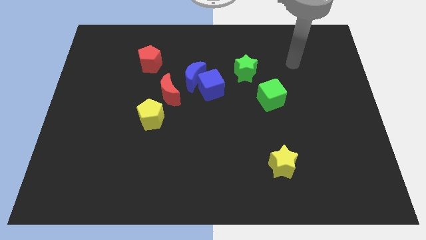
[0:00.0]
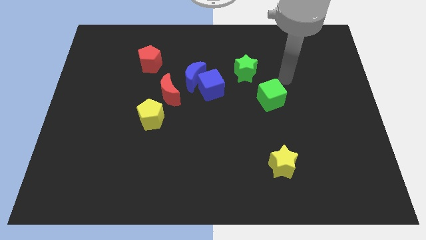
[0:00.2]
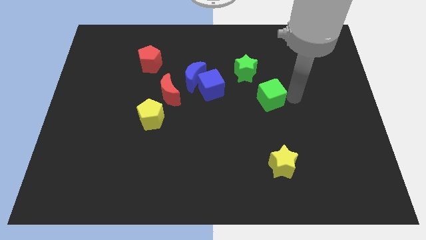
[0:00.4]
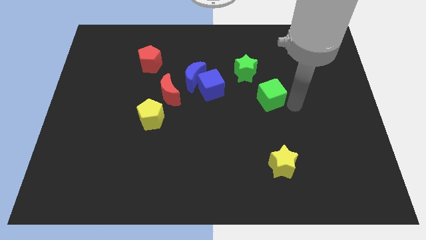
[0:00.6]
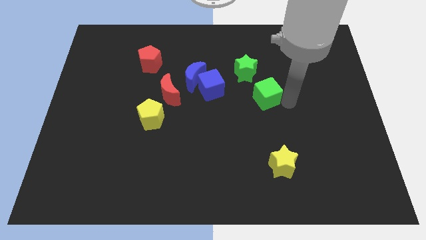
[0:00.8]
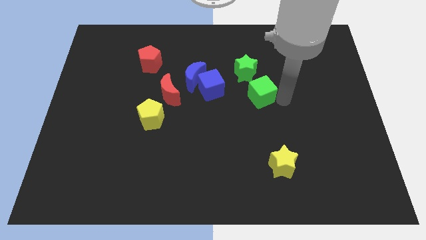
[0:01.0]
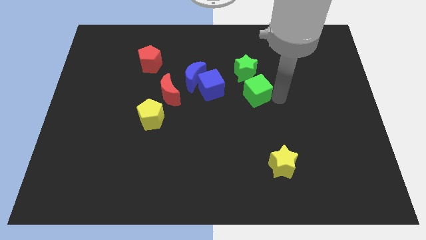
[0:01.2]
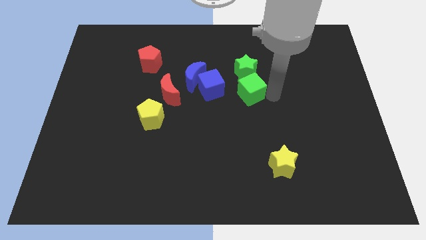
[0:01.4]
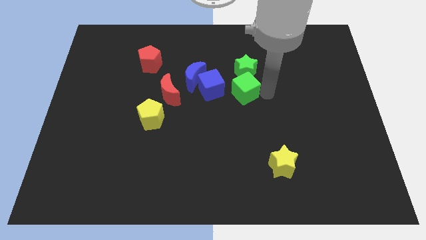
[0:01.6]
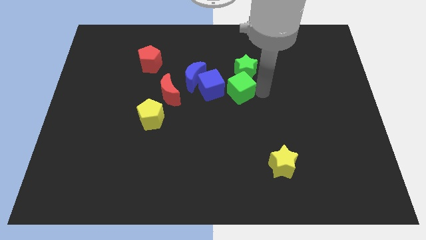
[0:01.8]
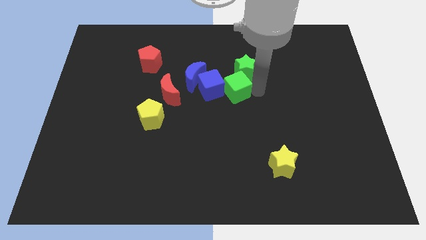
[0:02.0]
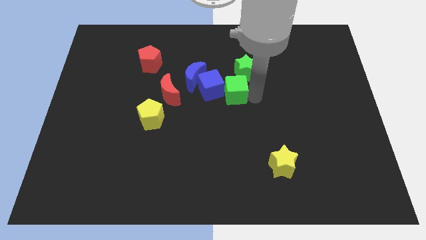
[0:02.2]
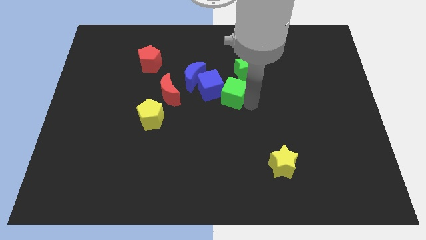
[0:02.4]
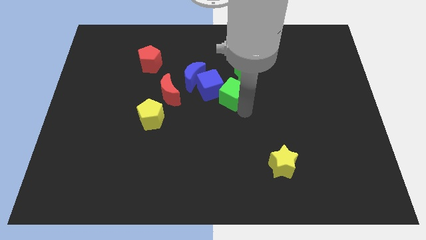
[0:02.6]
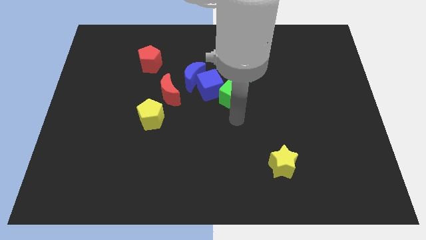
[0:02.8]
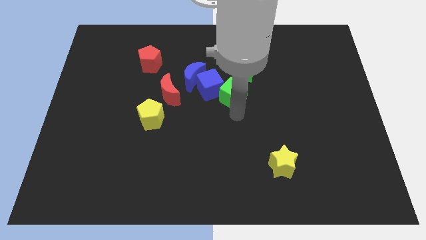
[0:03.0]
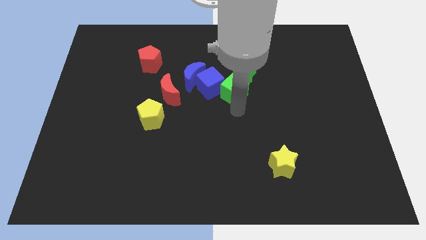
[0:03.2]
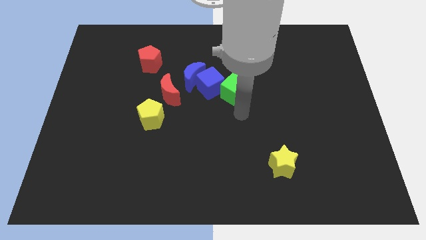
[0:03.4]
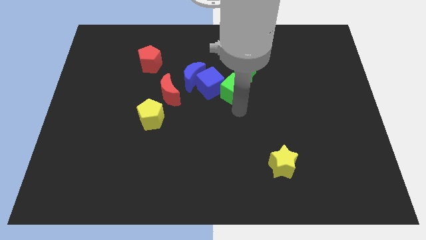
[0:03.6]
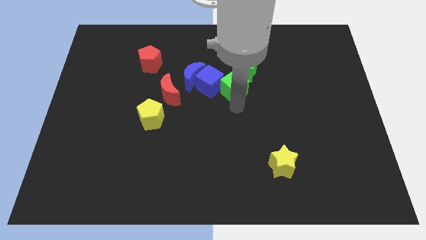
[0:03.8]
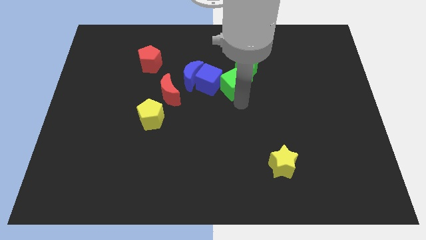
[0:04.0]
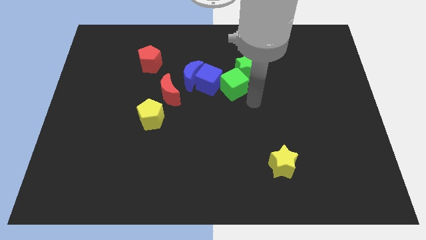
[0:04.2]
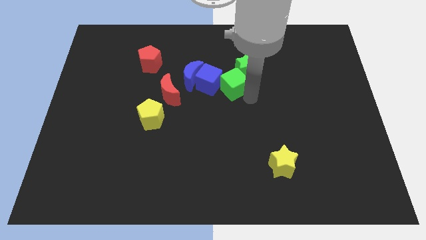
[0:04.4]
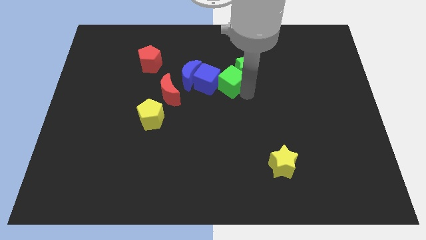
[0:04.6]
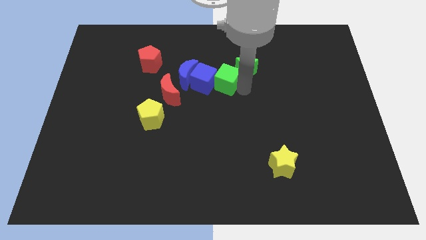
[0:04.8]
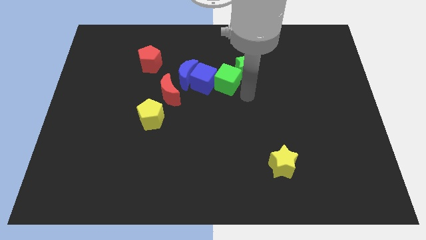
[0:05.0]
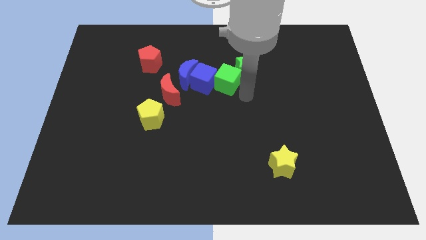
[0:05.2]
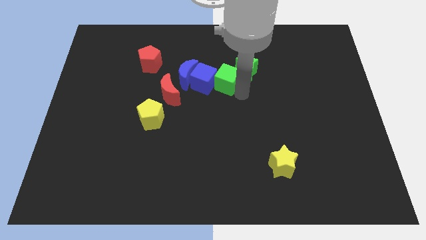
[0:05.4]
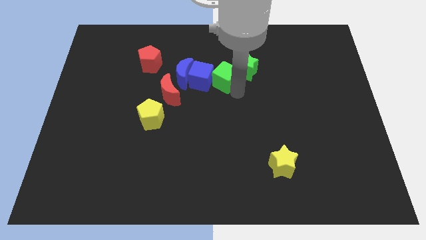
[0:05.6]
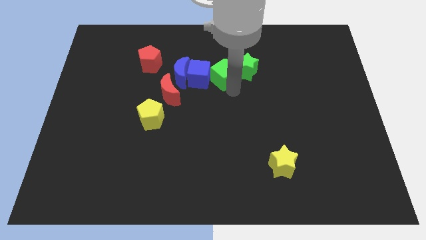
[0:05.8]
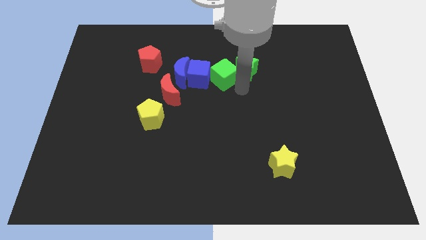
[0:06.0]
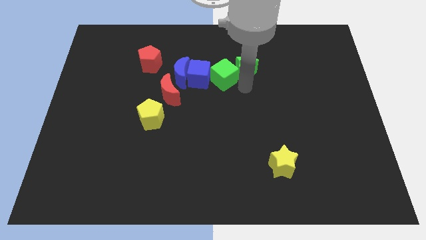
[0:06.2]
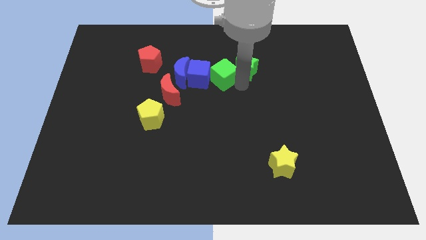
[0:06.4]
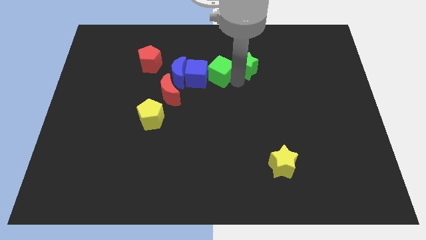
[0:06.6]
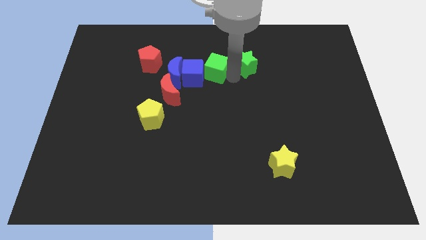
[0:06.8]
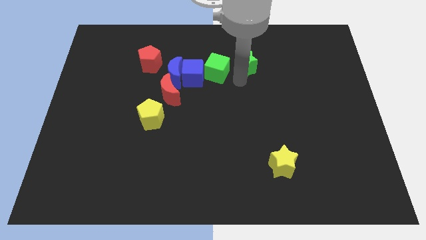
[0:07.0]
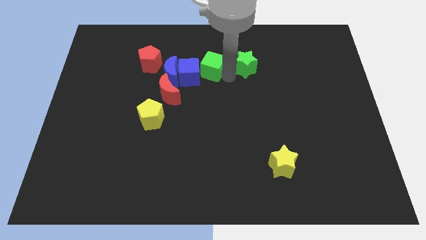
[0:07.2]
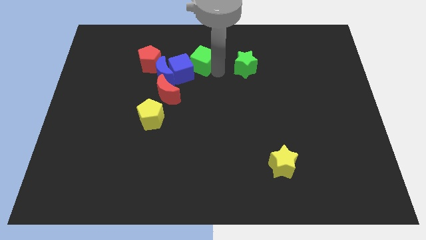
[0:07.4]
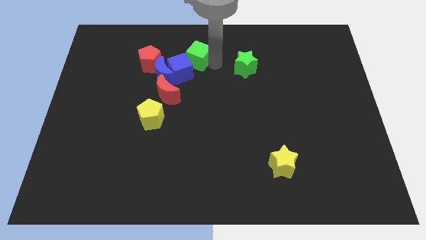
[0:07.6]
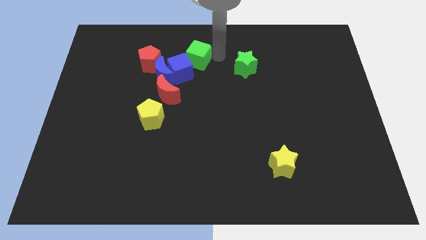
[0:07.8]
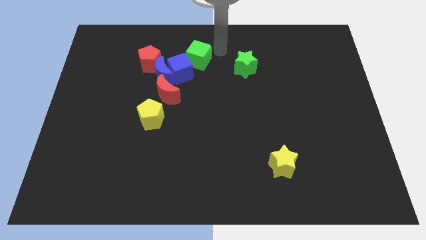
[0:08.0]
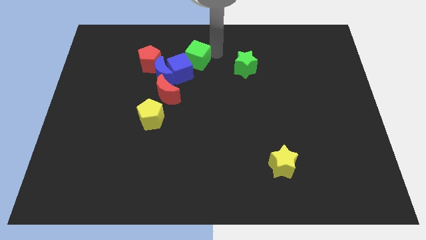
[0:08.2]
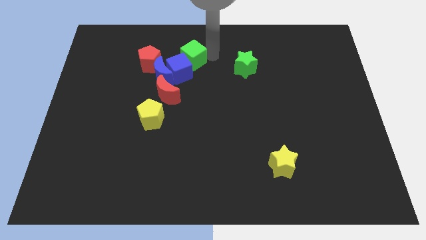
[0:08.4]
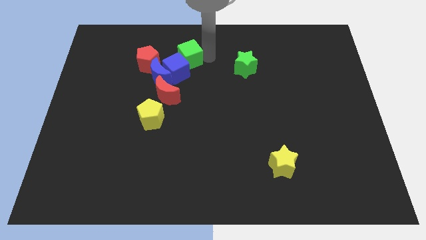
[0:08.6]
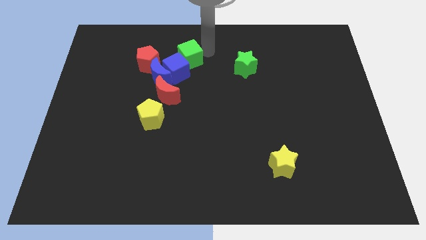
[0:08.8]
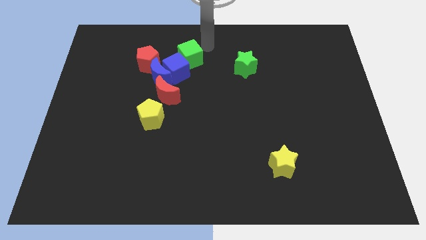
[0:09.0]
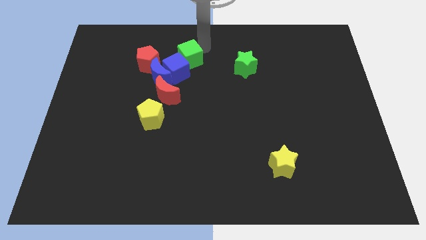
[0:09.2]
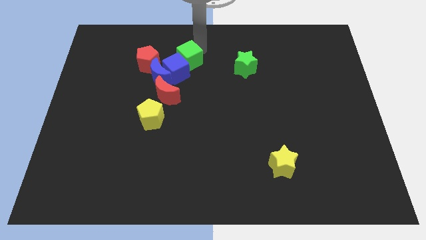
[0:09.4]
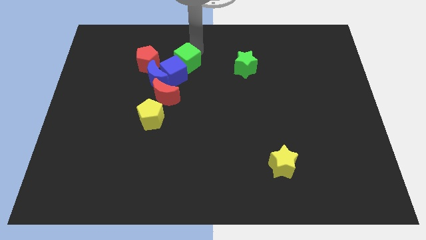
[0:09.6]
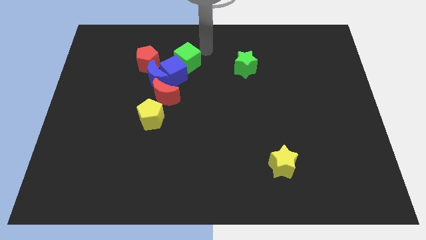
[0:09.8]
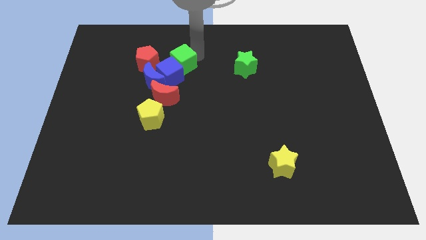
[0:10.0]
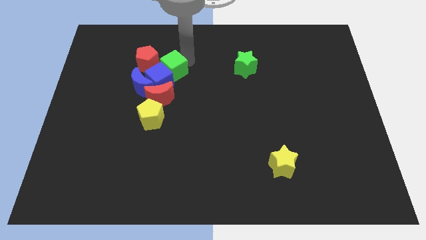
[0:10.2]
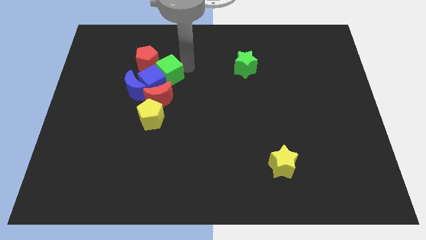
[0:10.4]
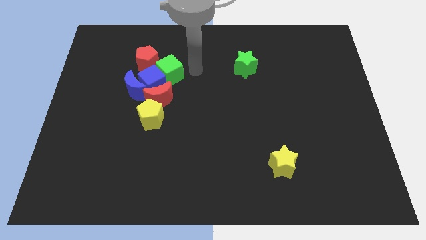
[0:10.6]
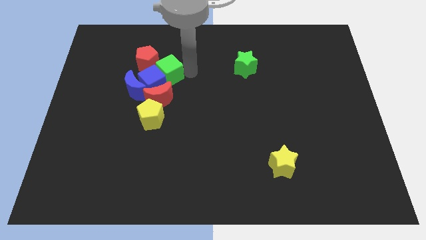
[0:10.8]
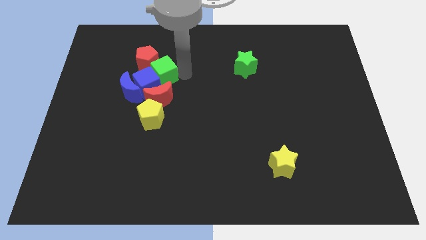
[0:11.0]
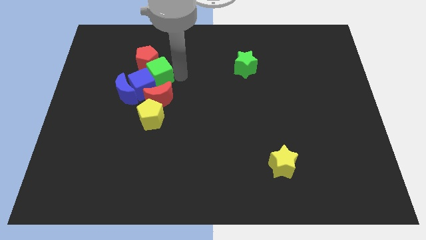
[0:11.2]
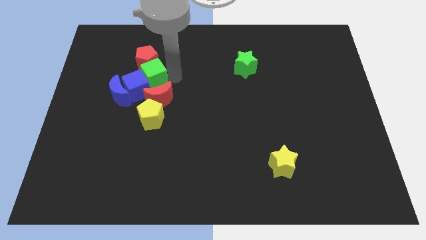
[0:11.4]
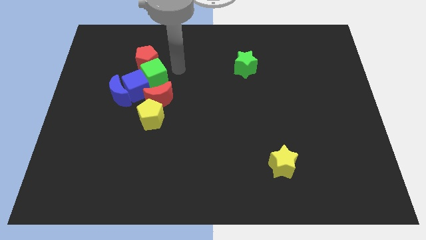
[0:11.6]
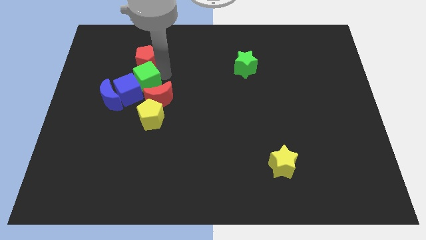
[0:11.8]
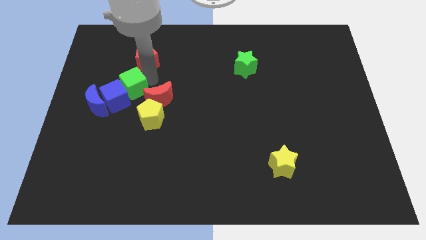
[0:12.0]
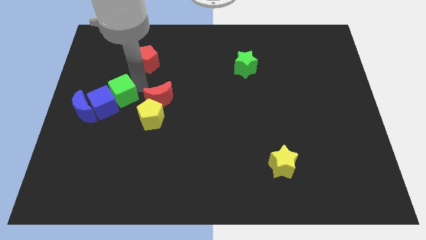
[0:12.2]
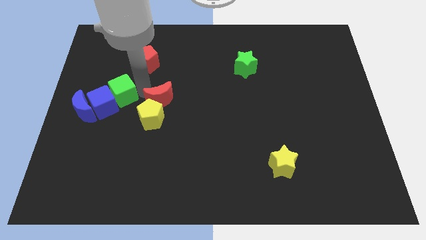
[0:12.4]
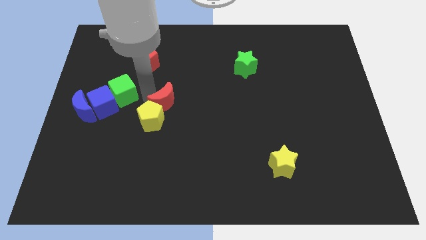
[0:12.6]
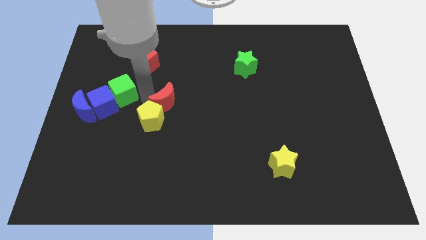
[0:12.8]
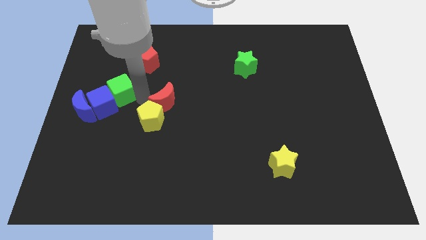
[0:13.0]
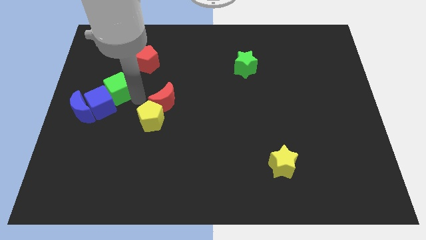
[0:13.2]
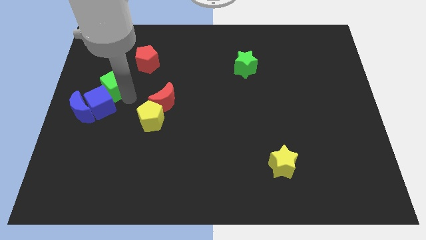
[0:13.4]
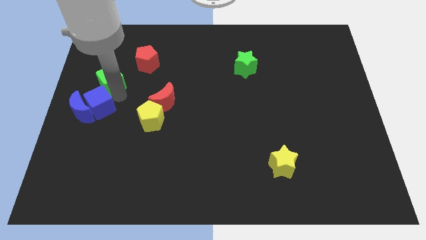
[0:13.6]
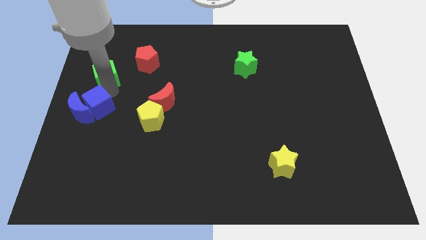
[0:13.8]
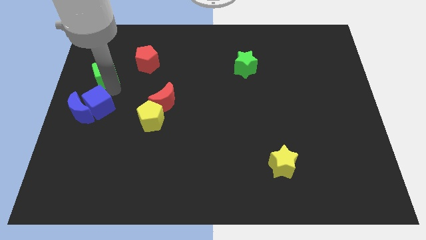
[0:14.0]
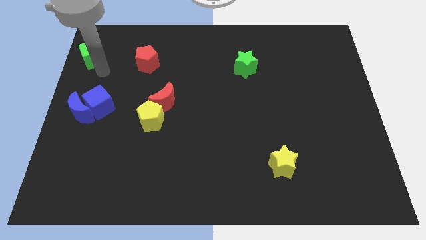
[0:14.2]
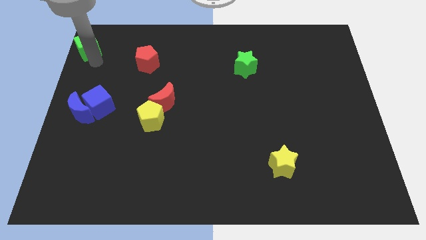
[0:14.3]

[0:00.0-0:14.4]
push the green cube to the upper left corner
